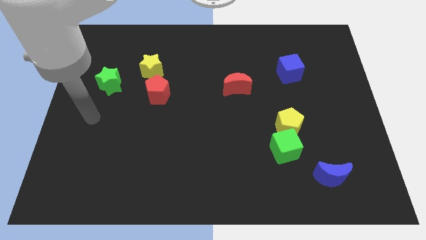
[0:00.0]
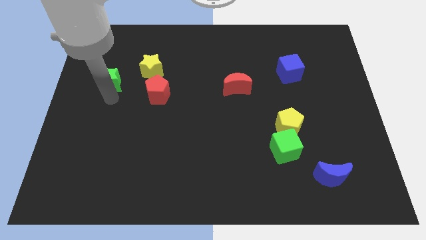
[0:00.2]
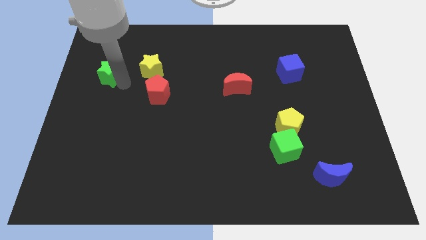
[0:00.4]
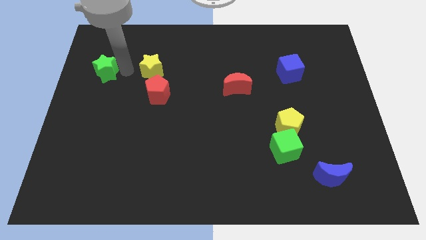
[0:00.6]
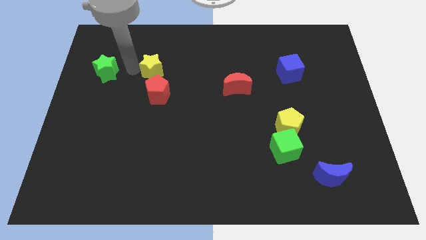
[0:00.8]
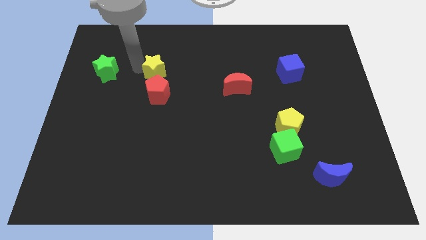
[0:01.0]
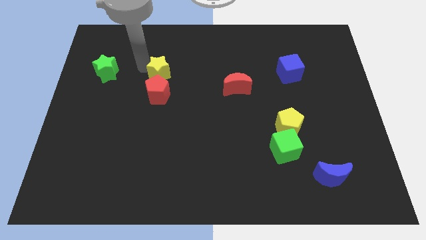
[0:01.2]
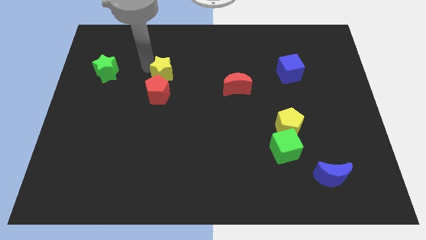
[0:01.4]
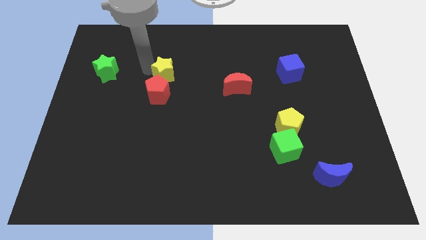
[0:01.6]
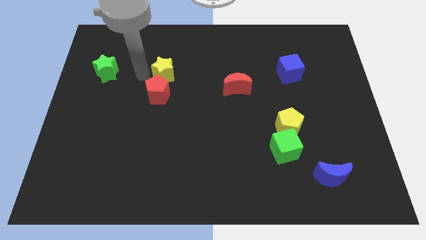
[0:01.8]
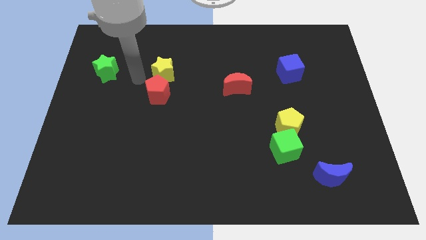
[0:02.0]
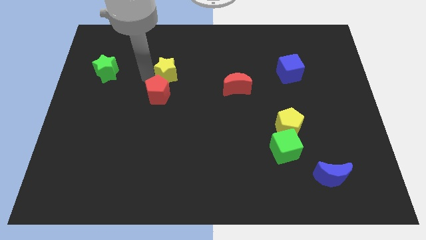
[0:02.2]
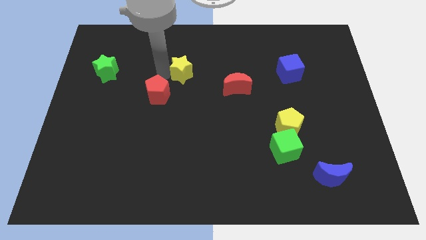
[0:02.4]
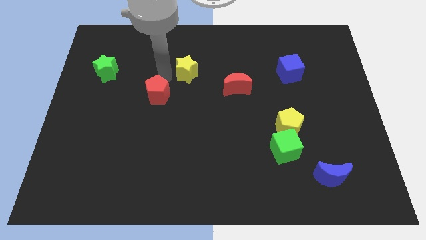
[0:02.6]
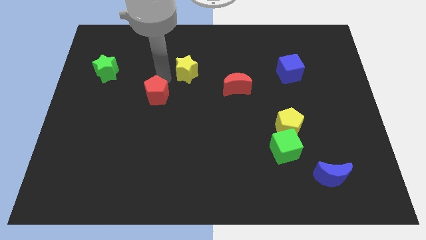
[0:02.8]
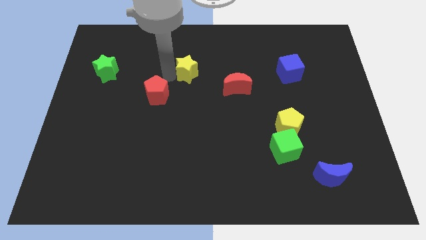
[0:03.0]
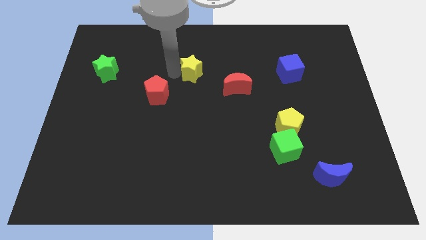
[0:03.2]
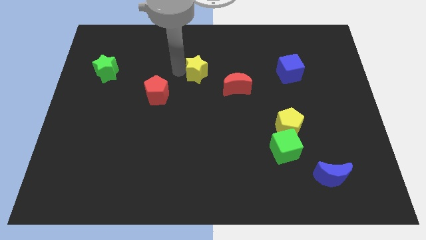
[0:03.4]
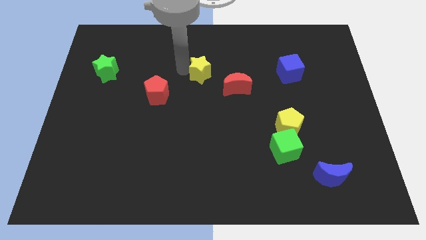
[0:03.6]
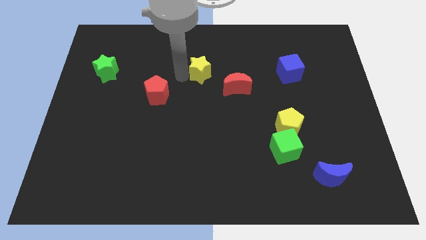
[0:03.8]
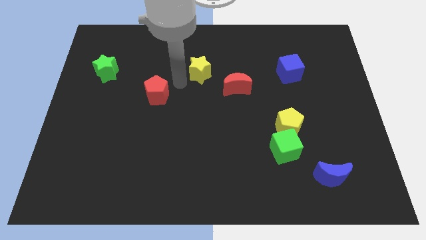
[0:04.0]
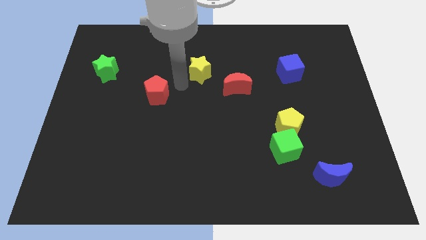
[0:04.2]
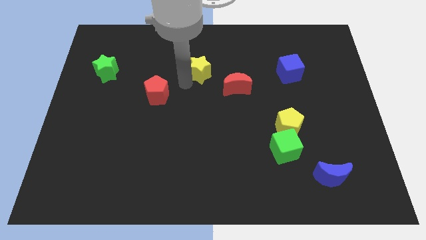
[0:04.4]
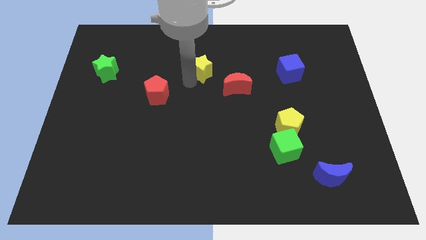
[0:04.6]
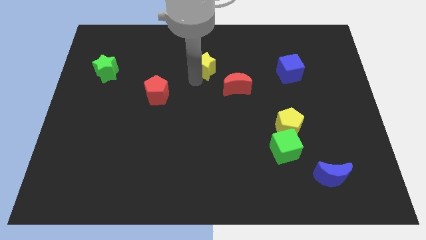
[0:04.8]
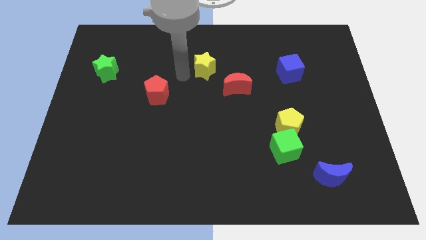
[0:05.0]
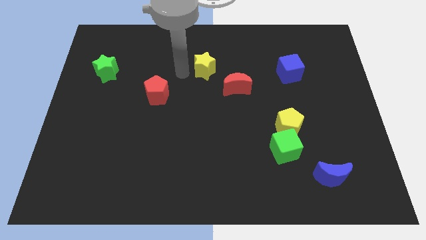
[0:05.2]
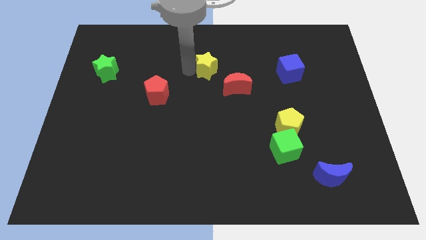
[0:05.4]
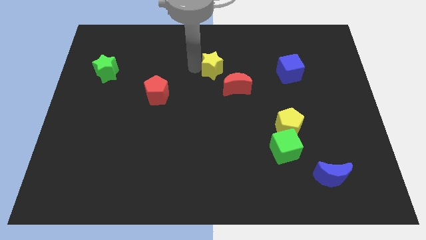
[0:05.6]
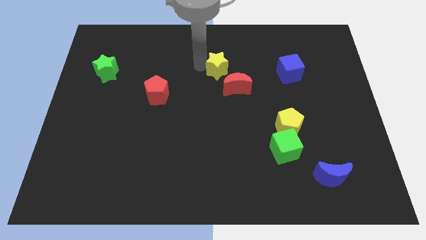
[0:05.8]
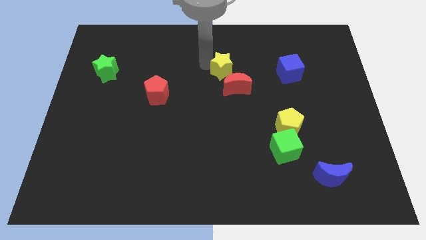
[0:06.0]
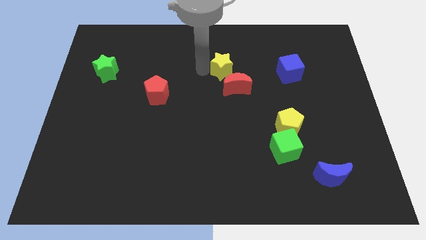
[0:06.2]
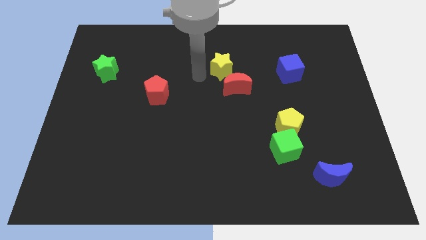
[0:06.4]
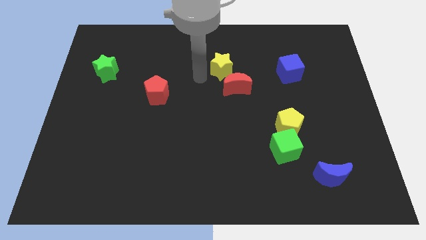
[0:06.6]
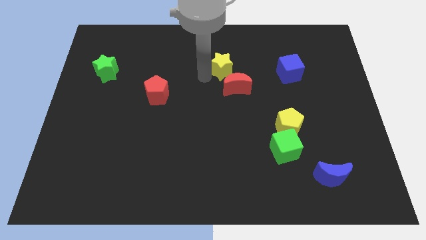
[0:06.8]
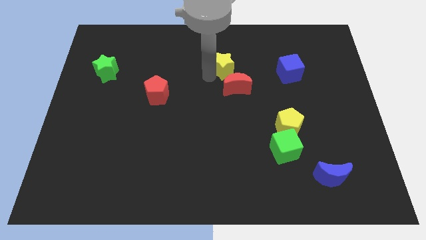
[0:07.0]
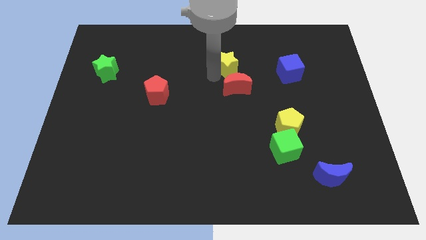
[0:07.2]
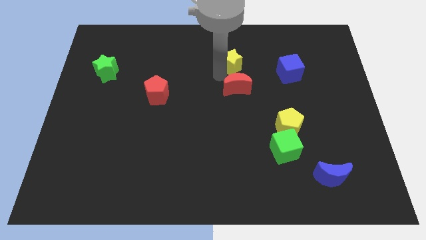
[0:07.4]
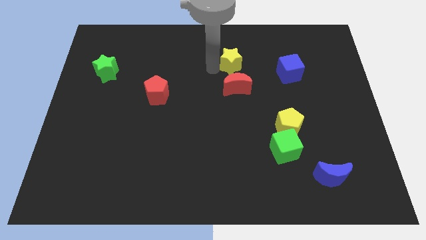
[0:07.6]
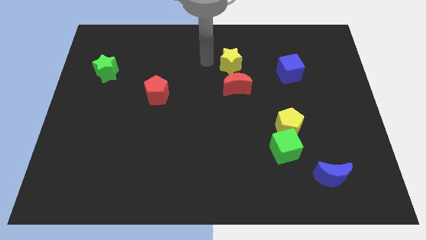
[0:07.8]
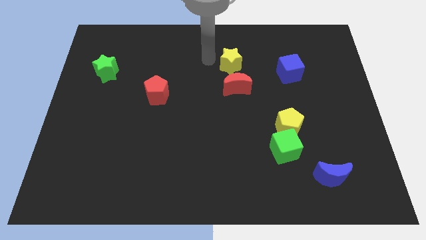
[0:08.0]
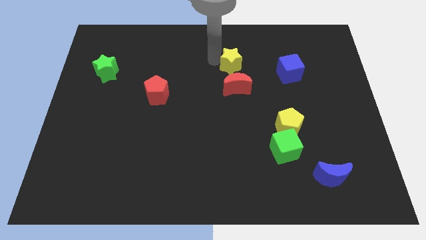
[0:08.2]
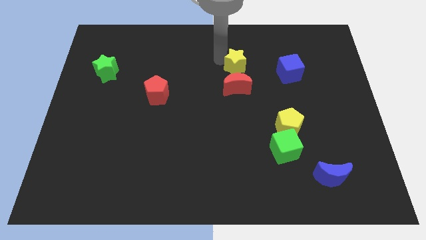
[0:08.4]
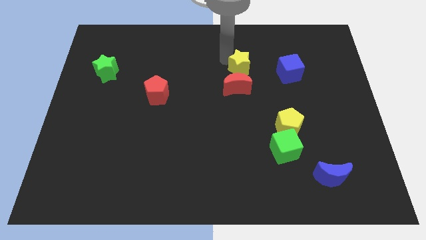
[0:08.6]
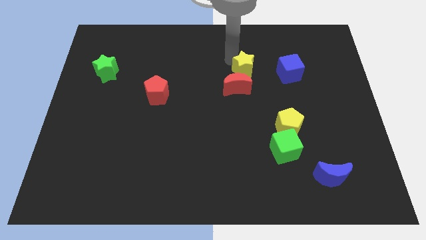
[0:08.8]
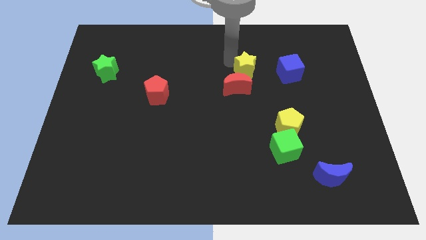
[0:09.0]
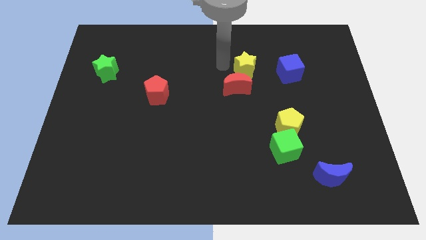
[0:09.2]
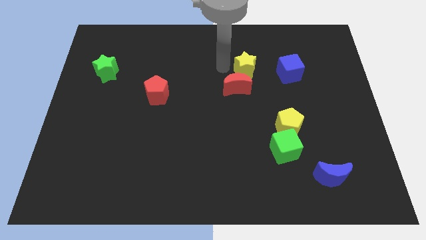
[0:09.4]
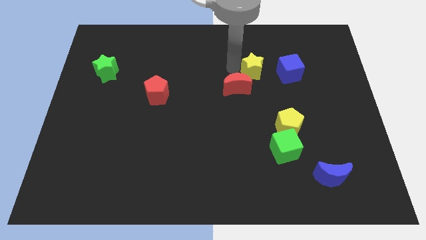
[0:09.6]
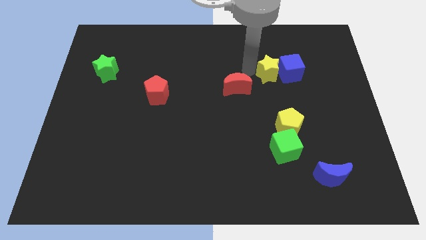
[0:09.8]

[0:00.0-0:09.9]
slide the yellow star to the blue cube

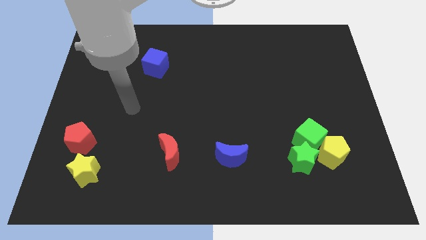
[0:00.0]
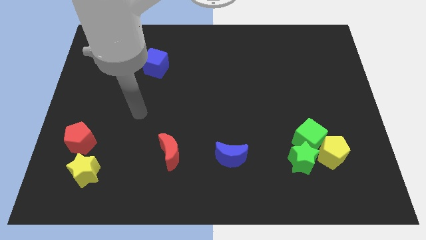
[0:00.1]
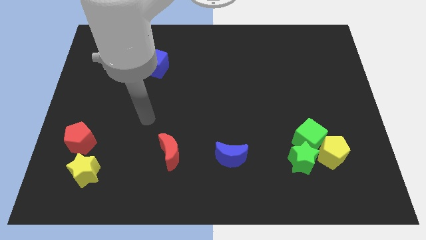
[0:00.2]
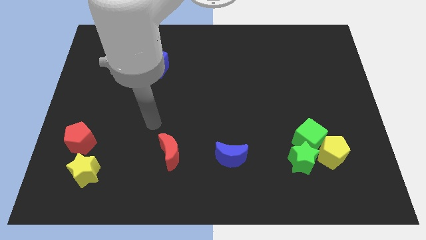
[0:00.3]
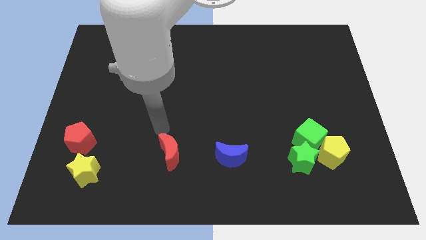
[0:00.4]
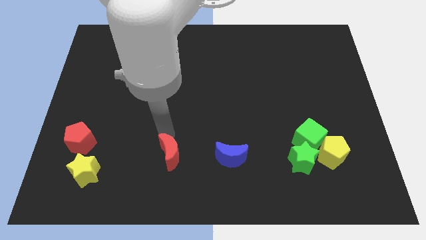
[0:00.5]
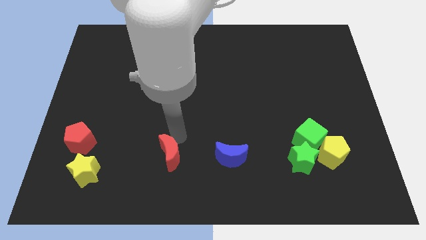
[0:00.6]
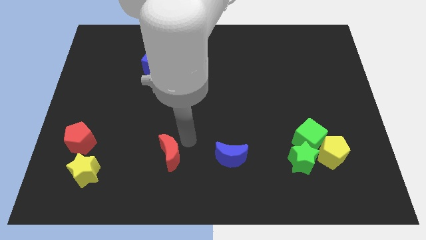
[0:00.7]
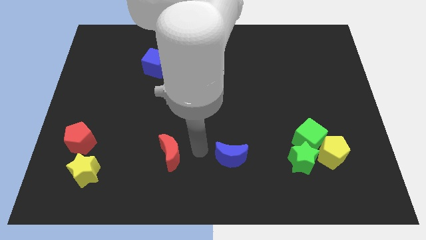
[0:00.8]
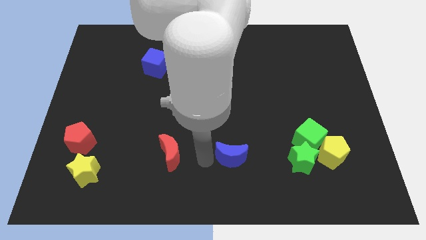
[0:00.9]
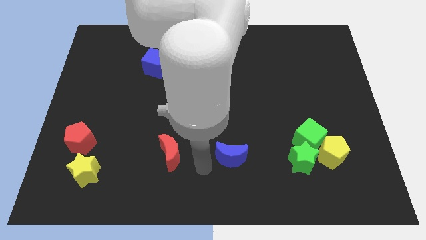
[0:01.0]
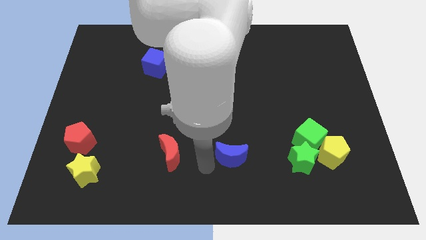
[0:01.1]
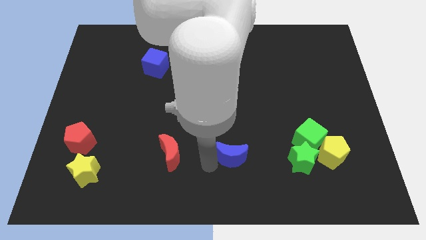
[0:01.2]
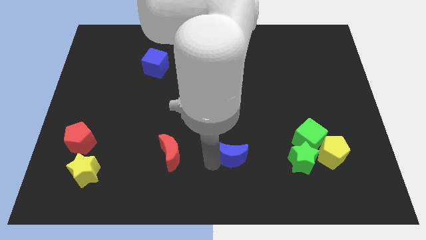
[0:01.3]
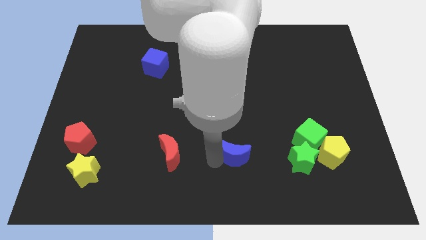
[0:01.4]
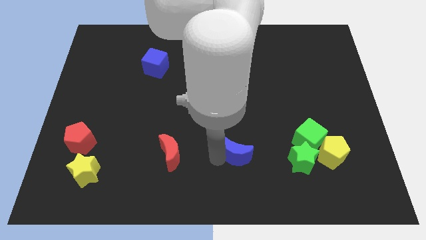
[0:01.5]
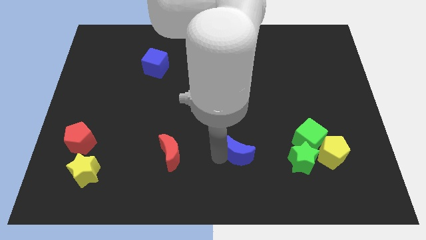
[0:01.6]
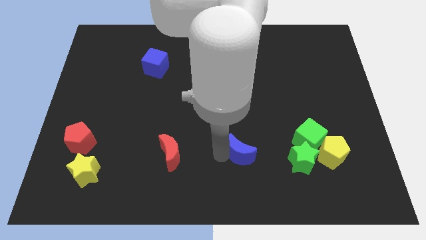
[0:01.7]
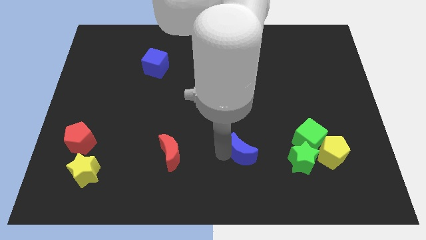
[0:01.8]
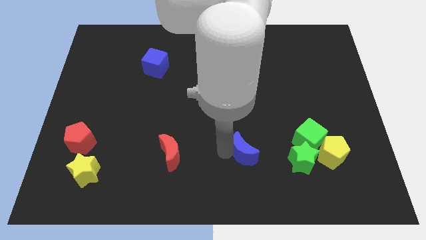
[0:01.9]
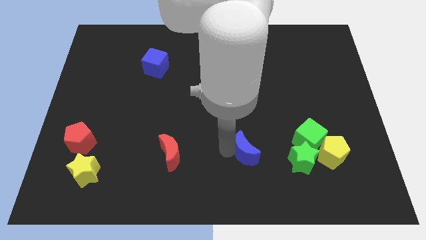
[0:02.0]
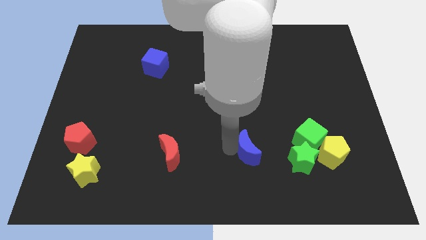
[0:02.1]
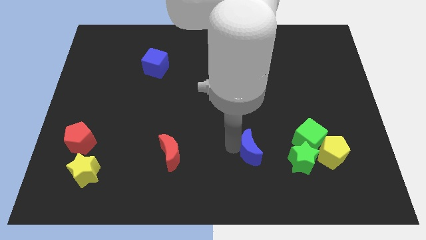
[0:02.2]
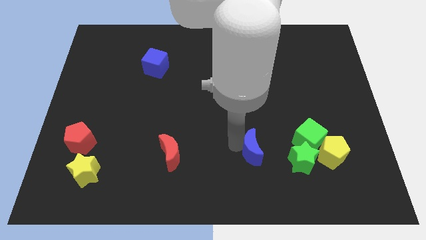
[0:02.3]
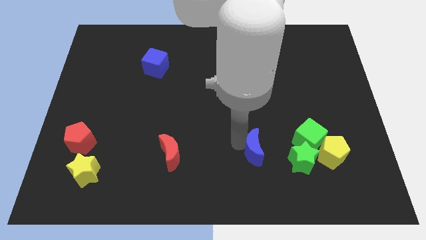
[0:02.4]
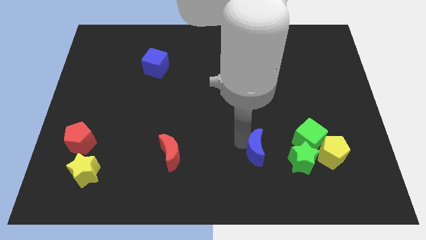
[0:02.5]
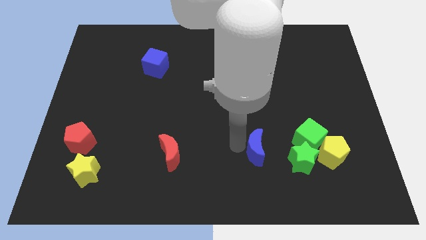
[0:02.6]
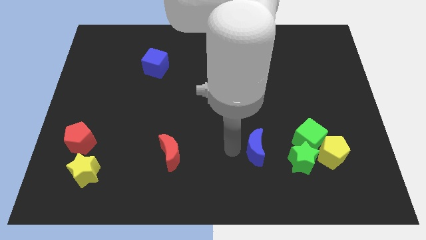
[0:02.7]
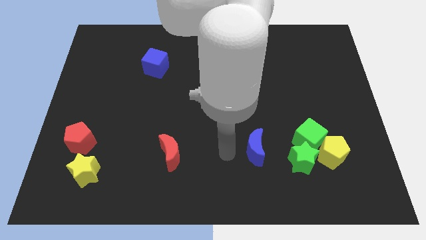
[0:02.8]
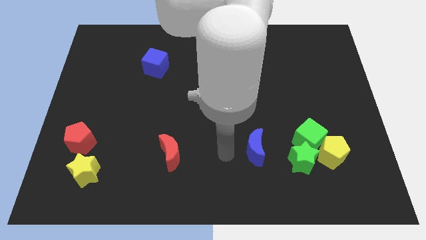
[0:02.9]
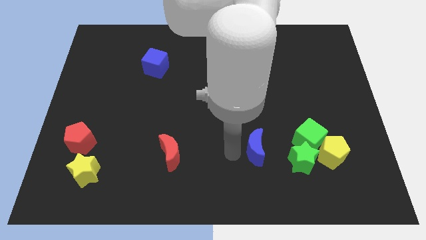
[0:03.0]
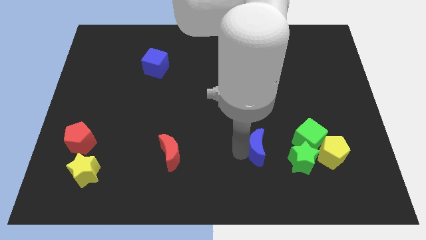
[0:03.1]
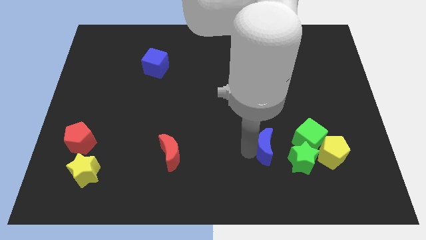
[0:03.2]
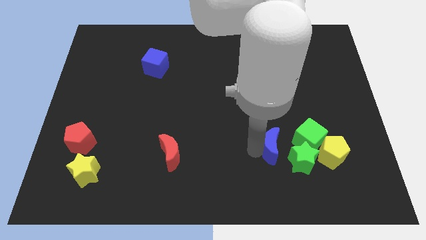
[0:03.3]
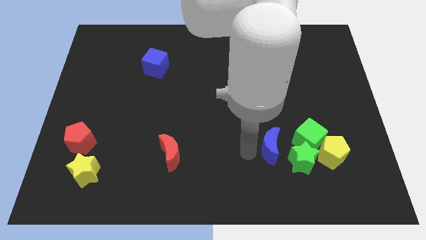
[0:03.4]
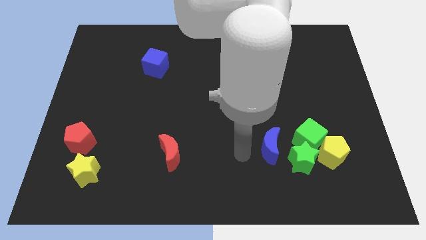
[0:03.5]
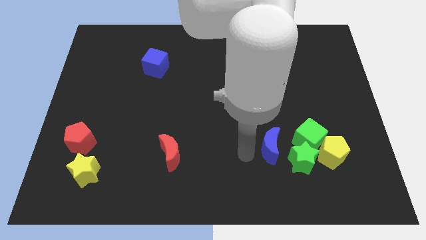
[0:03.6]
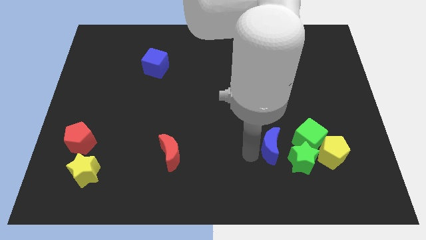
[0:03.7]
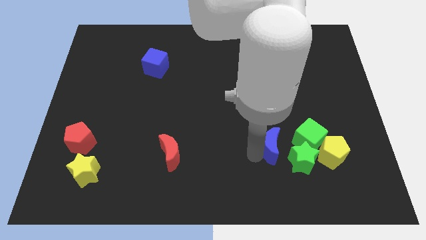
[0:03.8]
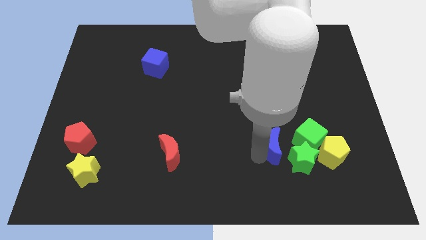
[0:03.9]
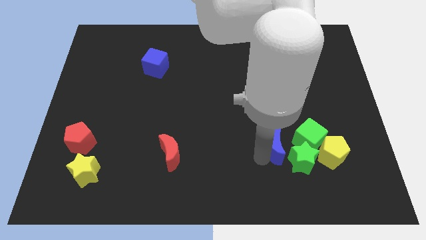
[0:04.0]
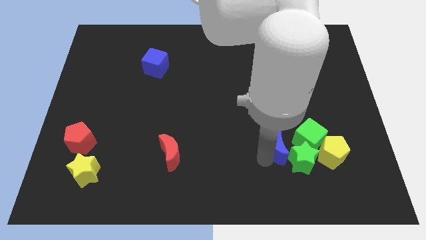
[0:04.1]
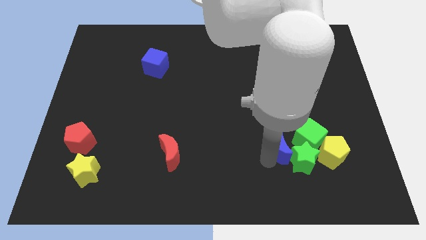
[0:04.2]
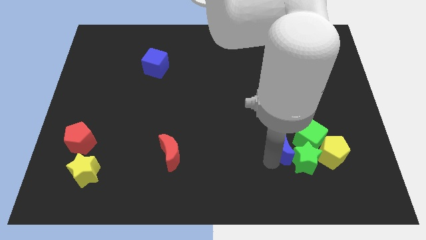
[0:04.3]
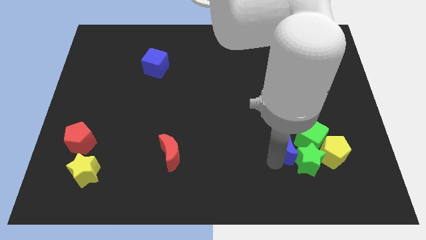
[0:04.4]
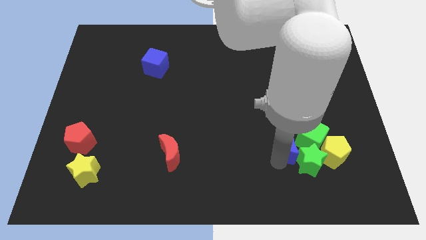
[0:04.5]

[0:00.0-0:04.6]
push the blue moon towards the green cube
